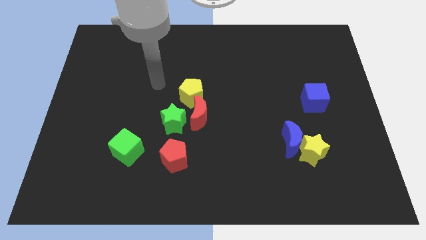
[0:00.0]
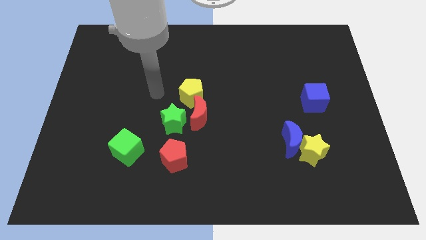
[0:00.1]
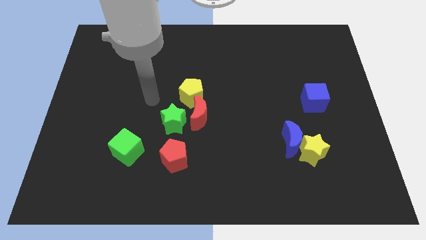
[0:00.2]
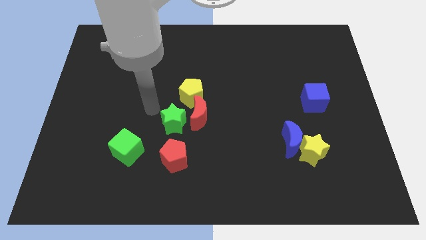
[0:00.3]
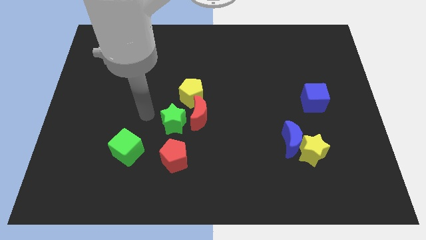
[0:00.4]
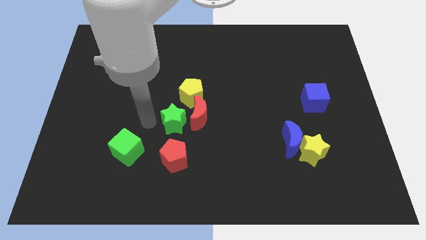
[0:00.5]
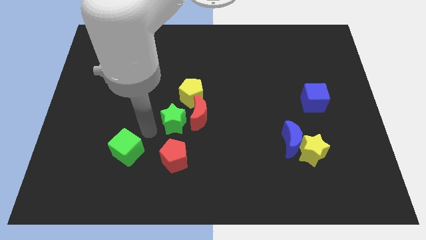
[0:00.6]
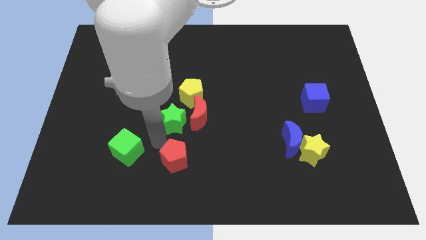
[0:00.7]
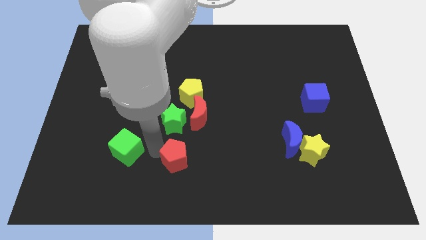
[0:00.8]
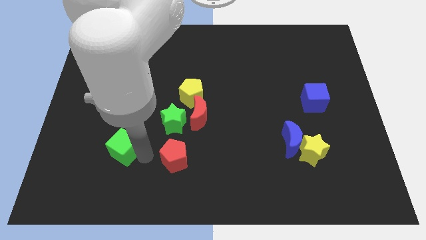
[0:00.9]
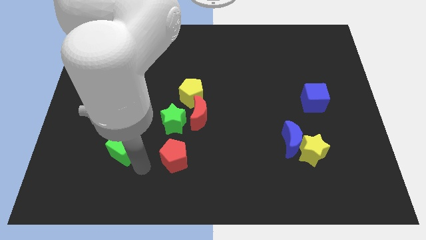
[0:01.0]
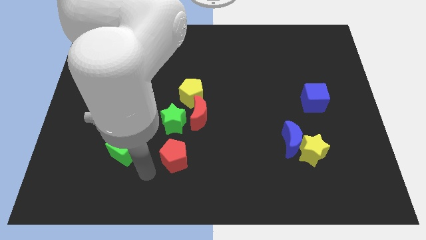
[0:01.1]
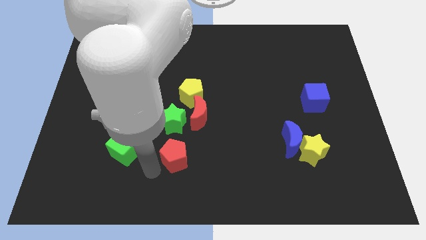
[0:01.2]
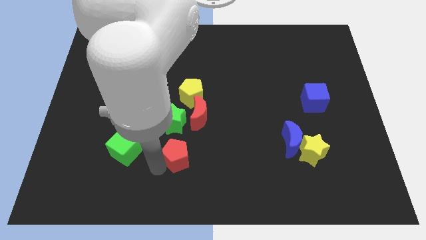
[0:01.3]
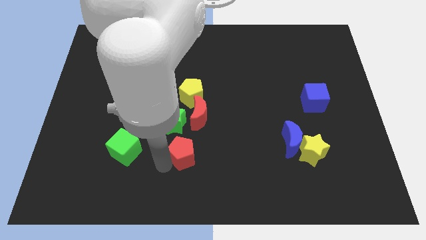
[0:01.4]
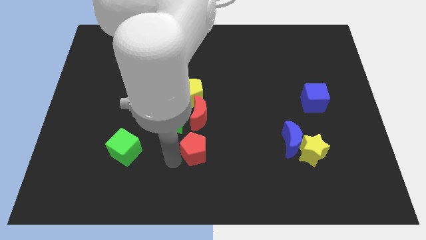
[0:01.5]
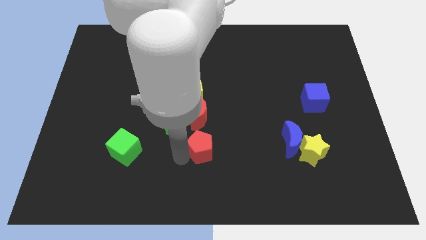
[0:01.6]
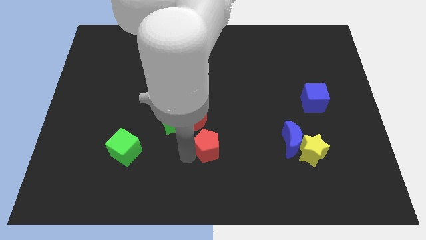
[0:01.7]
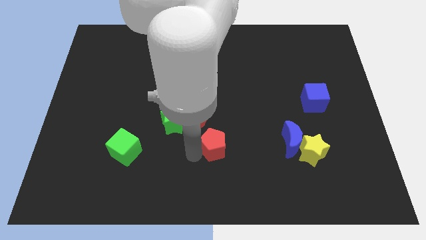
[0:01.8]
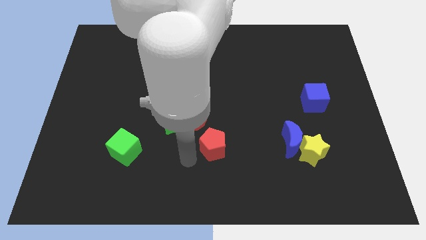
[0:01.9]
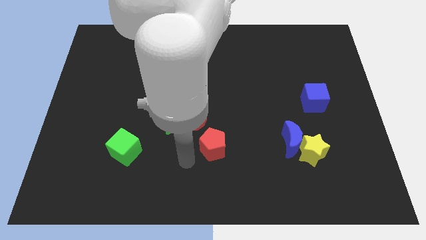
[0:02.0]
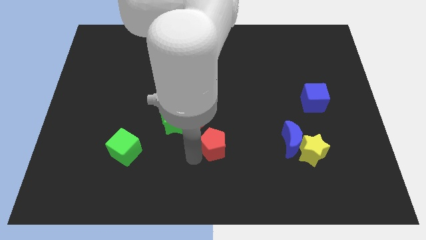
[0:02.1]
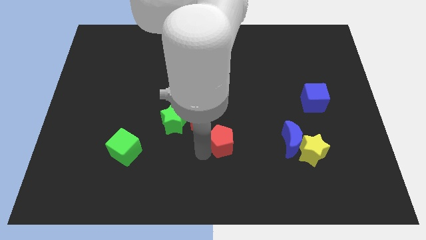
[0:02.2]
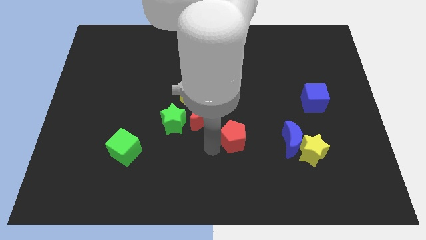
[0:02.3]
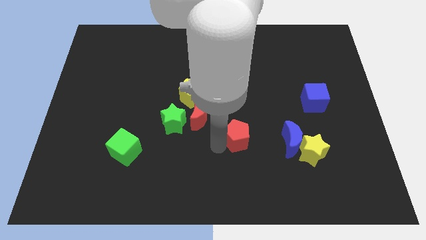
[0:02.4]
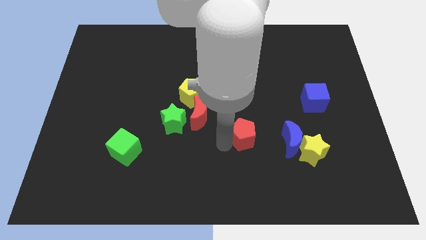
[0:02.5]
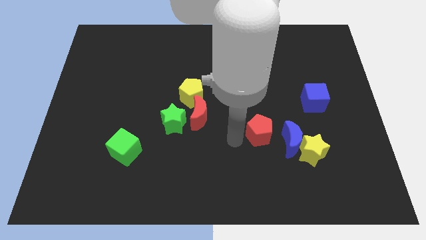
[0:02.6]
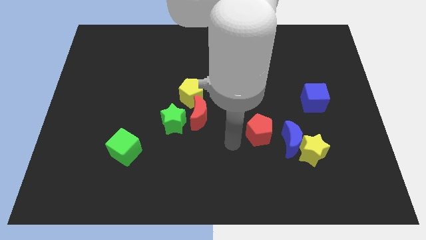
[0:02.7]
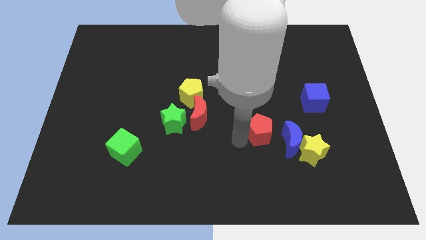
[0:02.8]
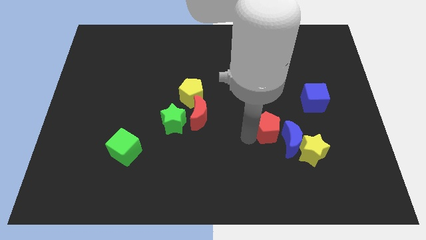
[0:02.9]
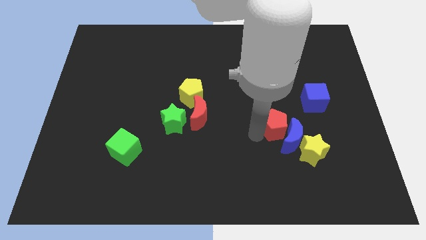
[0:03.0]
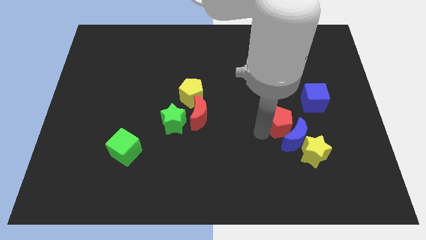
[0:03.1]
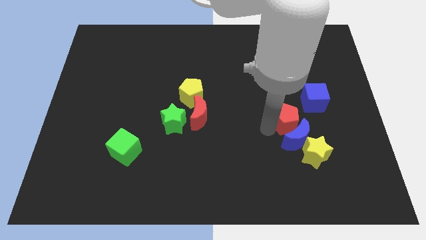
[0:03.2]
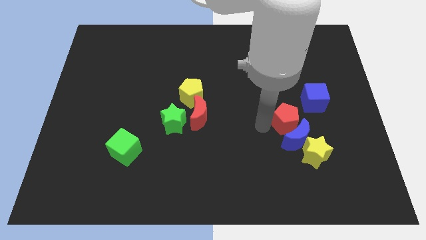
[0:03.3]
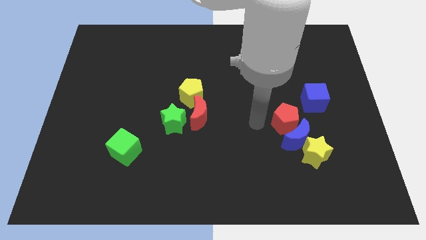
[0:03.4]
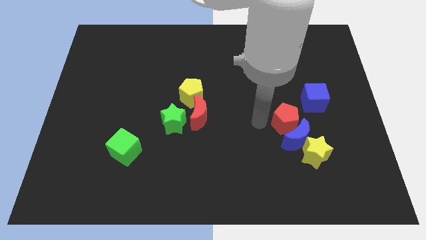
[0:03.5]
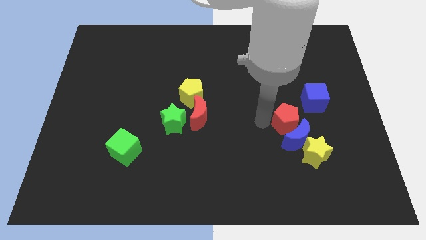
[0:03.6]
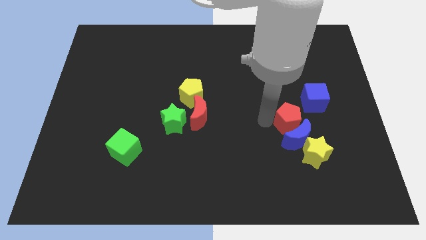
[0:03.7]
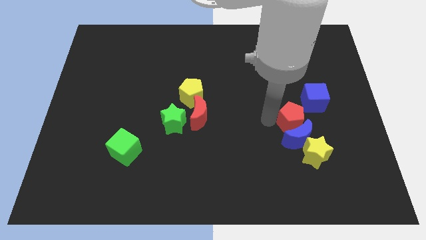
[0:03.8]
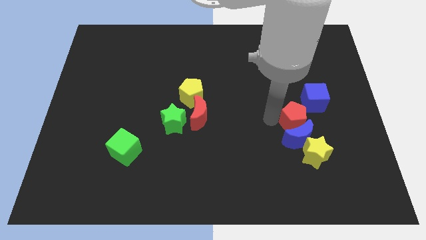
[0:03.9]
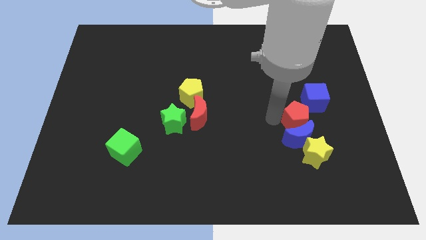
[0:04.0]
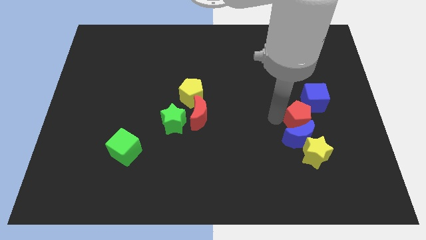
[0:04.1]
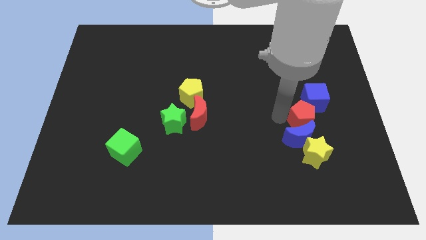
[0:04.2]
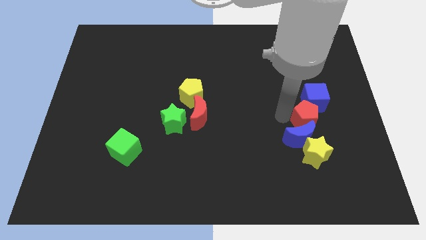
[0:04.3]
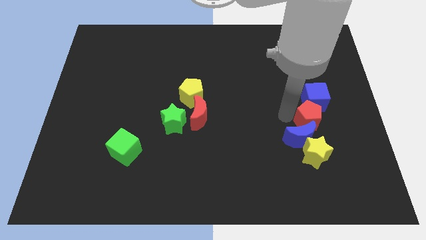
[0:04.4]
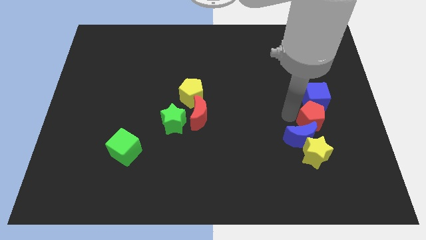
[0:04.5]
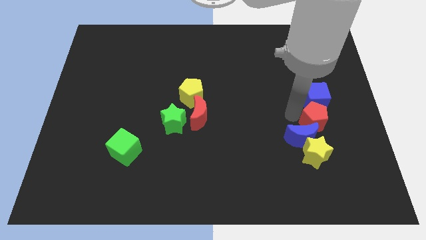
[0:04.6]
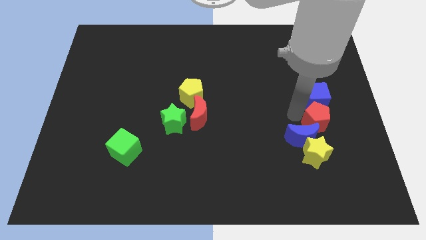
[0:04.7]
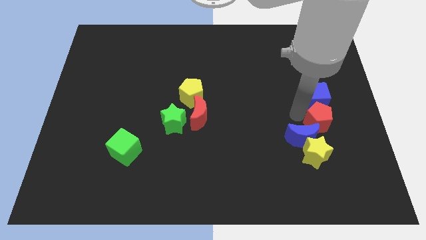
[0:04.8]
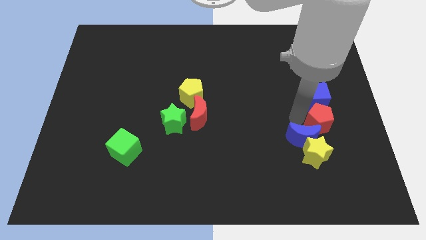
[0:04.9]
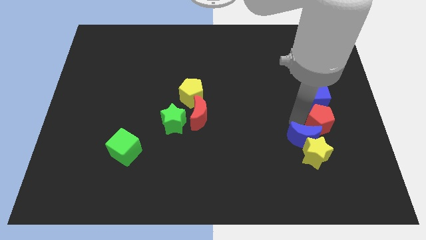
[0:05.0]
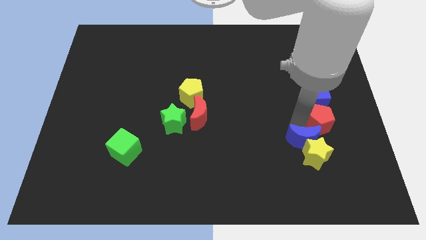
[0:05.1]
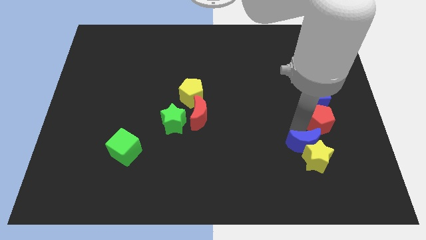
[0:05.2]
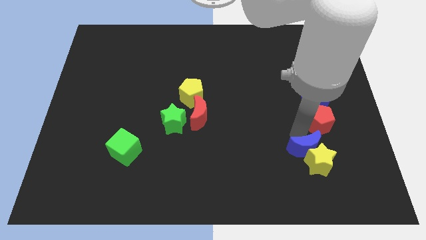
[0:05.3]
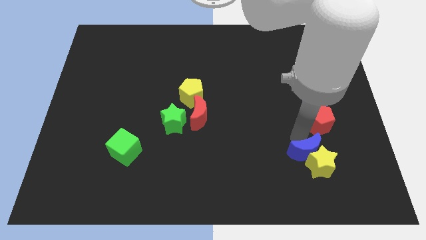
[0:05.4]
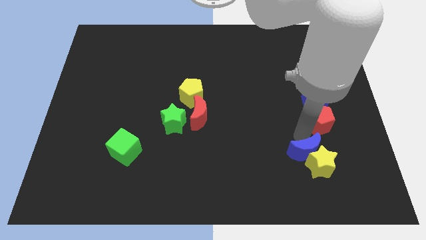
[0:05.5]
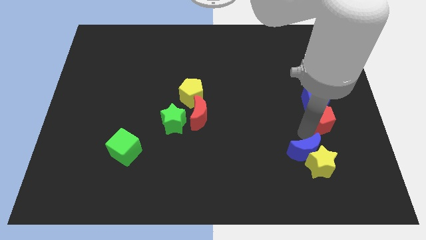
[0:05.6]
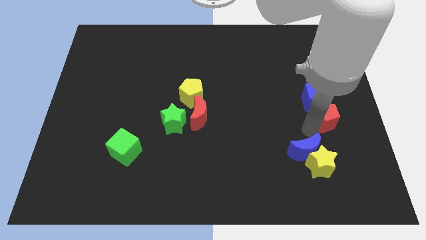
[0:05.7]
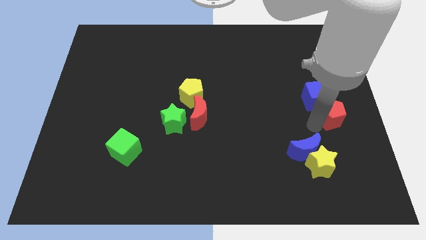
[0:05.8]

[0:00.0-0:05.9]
push the red pentagon to the right side
